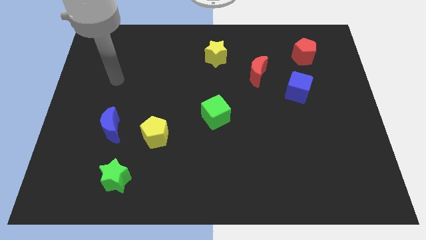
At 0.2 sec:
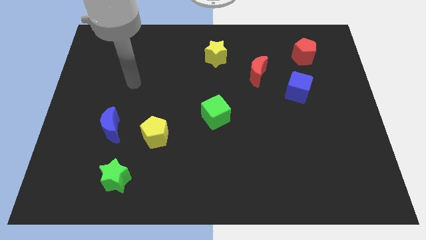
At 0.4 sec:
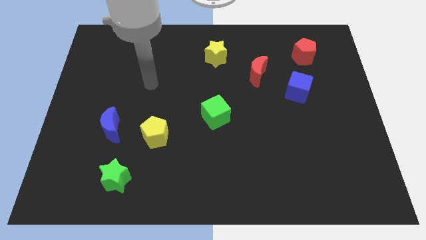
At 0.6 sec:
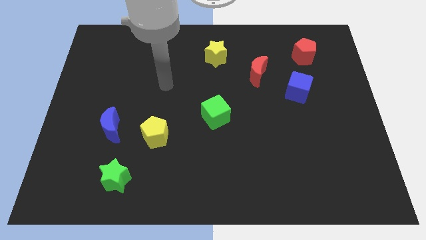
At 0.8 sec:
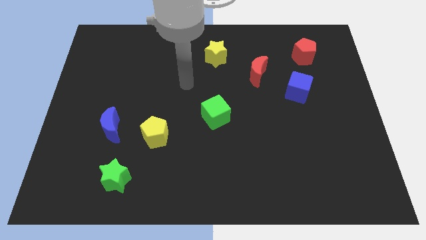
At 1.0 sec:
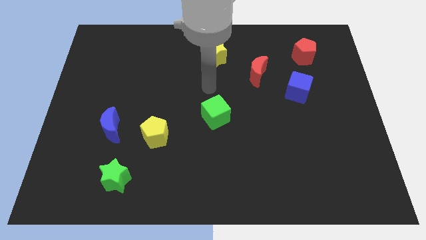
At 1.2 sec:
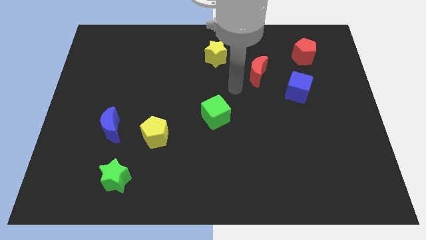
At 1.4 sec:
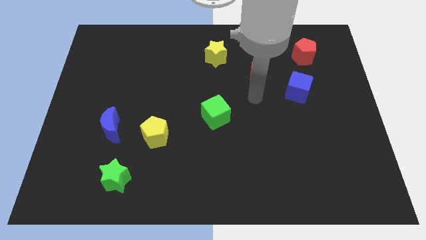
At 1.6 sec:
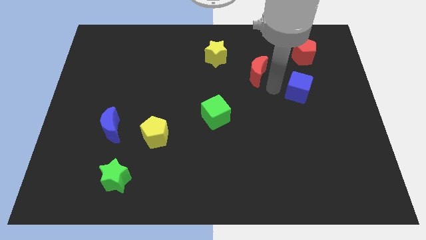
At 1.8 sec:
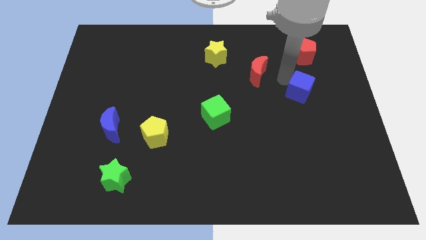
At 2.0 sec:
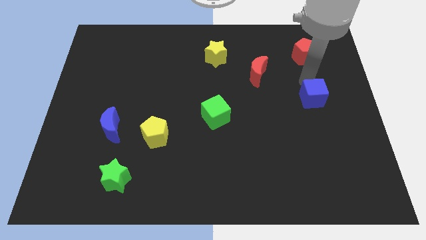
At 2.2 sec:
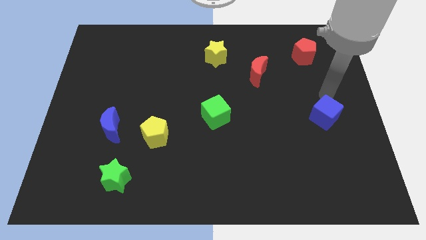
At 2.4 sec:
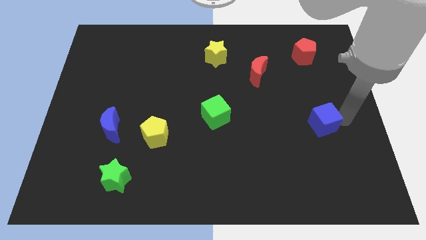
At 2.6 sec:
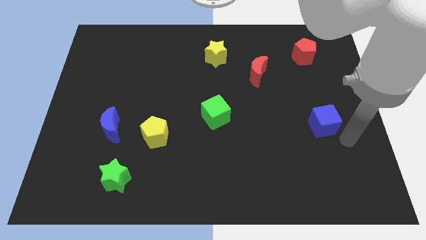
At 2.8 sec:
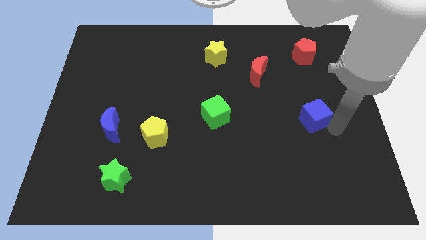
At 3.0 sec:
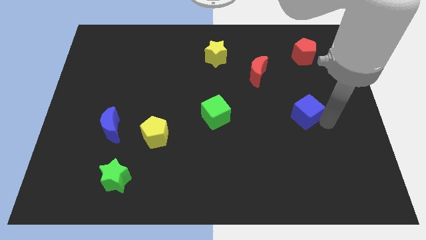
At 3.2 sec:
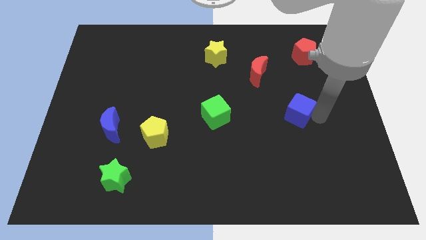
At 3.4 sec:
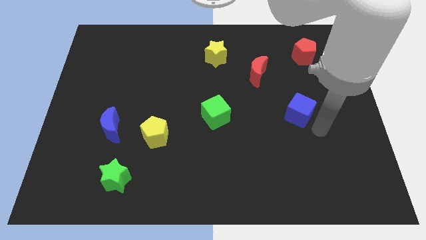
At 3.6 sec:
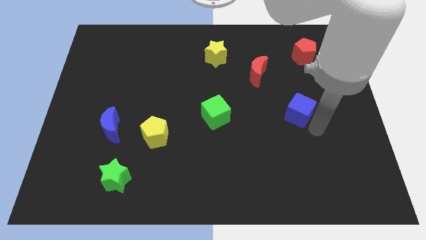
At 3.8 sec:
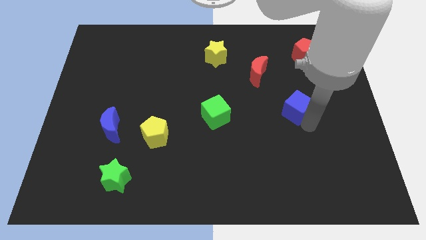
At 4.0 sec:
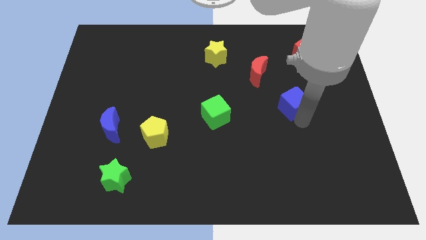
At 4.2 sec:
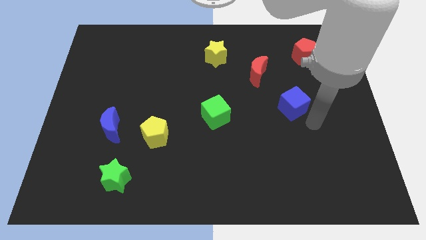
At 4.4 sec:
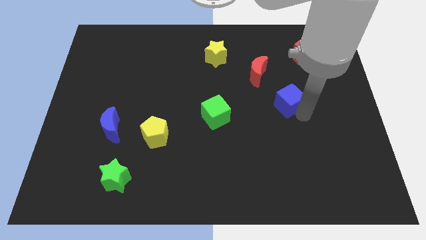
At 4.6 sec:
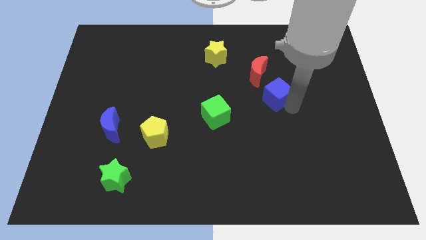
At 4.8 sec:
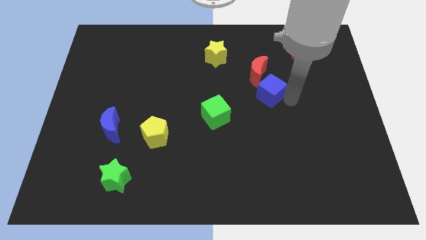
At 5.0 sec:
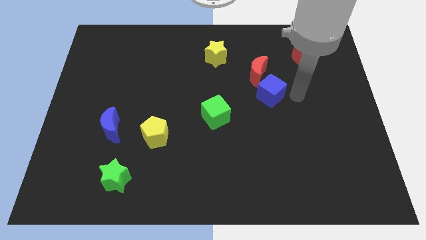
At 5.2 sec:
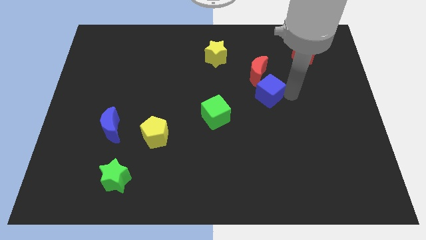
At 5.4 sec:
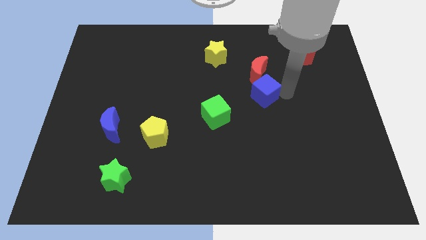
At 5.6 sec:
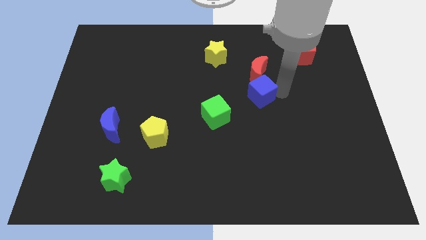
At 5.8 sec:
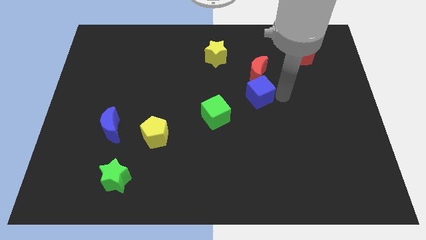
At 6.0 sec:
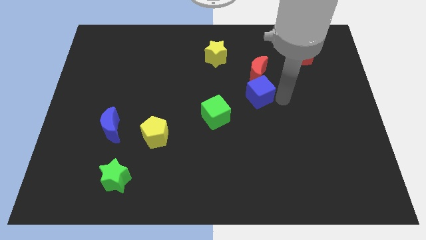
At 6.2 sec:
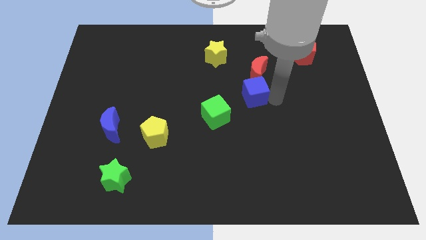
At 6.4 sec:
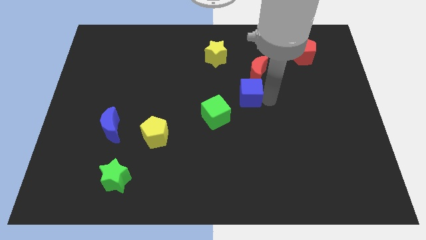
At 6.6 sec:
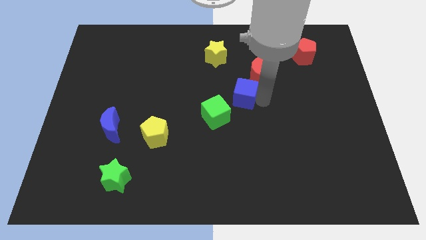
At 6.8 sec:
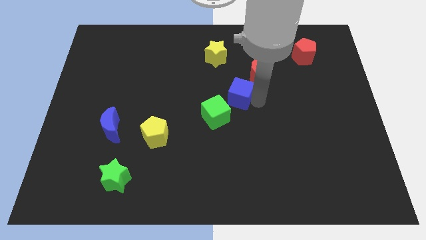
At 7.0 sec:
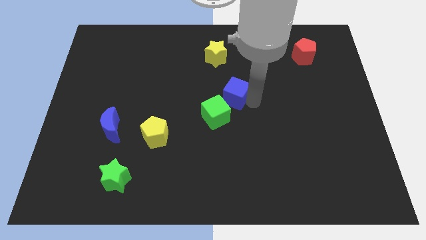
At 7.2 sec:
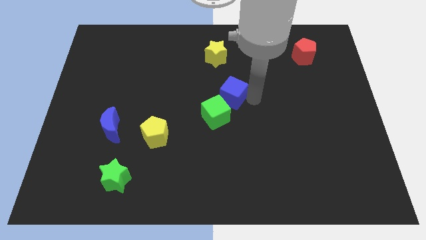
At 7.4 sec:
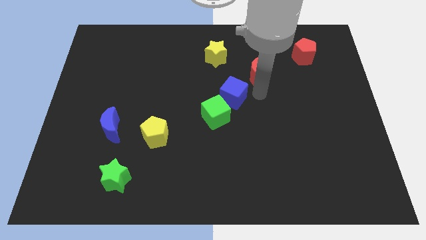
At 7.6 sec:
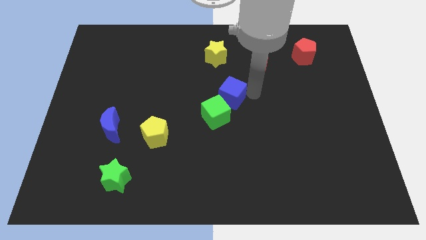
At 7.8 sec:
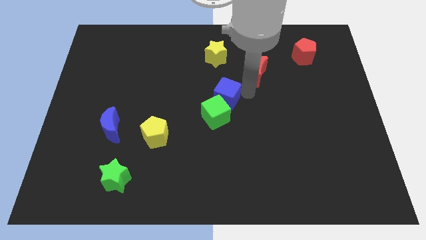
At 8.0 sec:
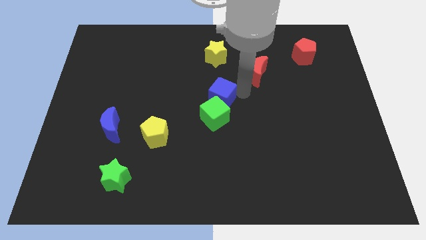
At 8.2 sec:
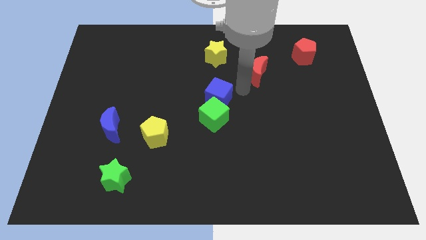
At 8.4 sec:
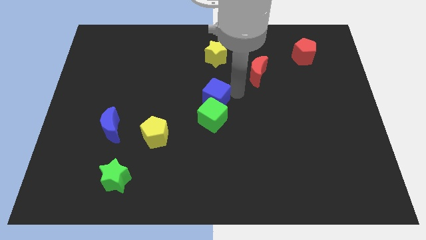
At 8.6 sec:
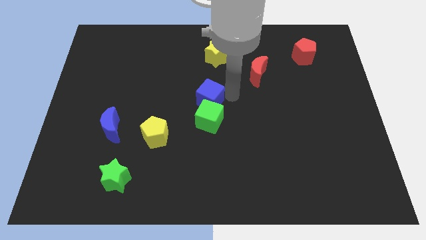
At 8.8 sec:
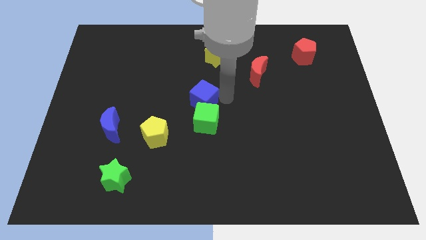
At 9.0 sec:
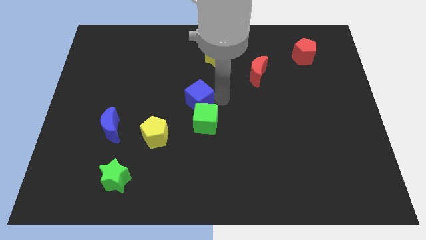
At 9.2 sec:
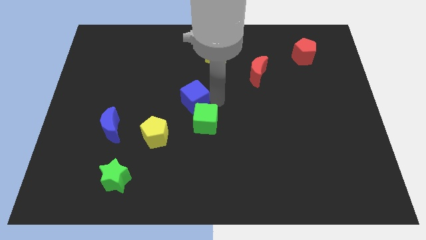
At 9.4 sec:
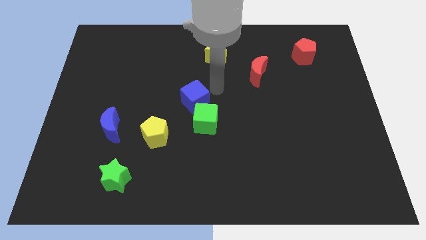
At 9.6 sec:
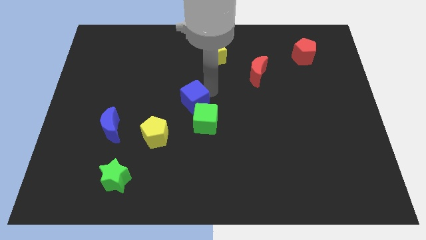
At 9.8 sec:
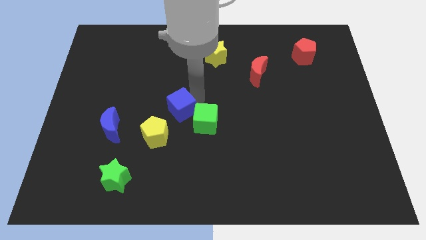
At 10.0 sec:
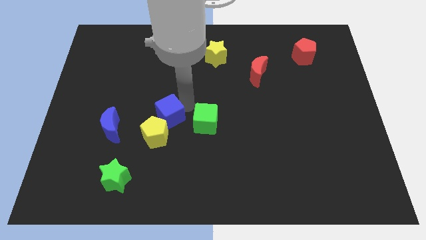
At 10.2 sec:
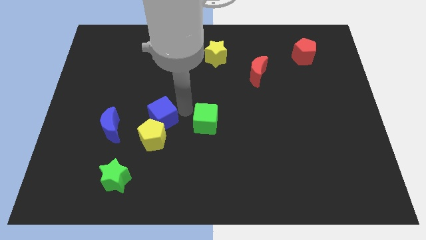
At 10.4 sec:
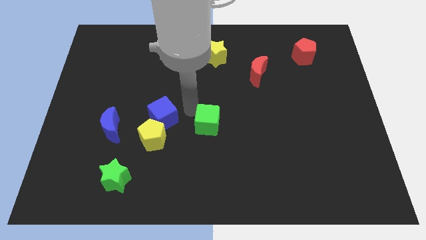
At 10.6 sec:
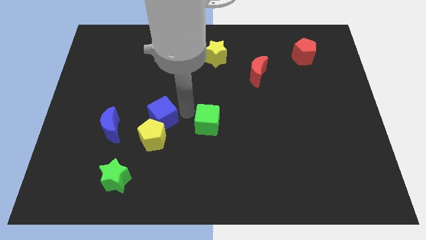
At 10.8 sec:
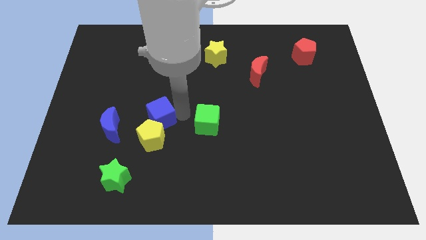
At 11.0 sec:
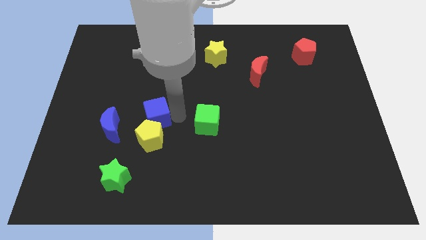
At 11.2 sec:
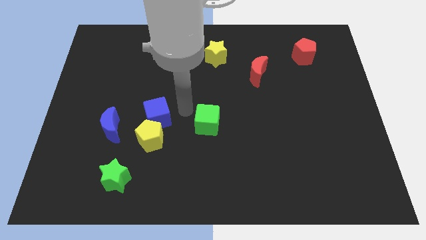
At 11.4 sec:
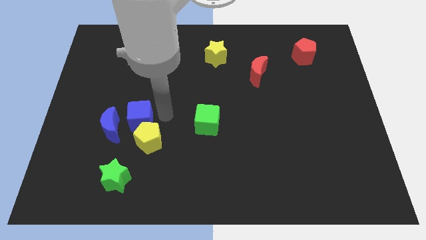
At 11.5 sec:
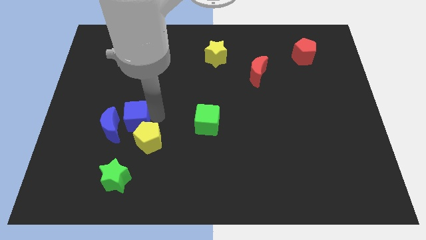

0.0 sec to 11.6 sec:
put the blue cube to the blue moon
